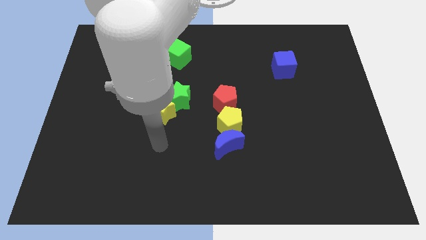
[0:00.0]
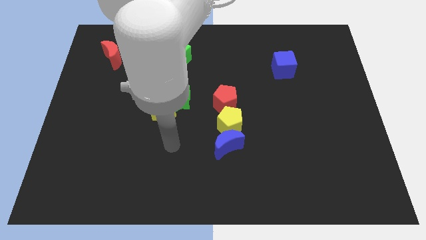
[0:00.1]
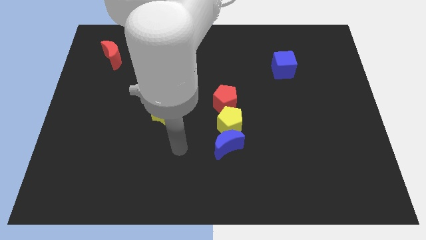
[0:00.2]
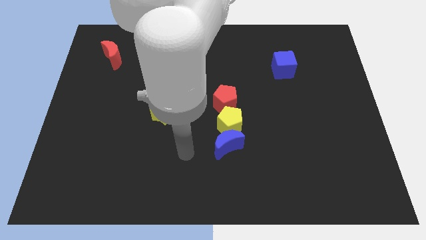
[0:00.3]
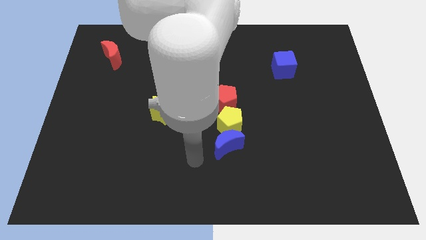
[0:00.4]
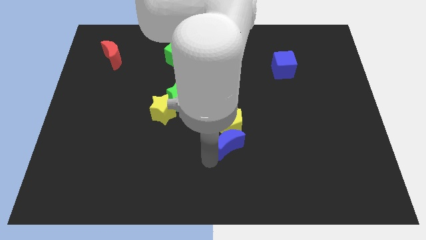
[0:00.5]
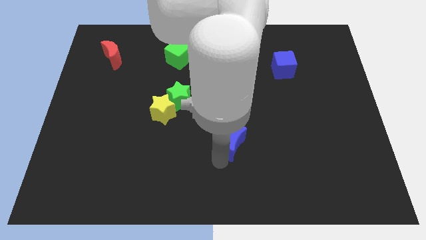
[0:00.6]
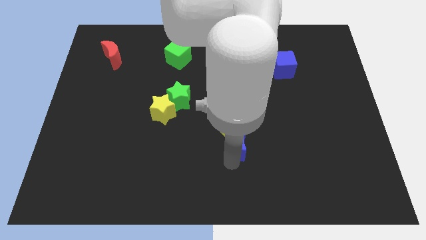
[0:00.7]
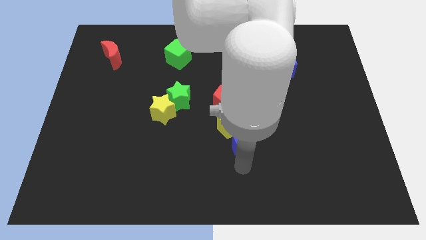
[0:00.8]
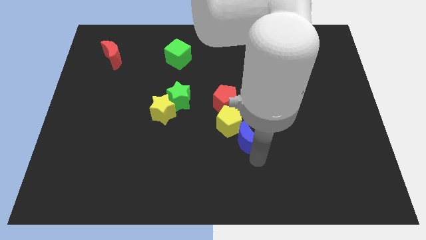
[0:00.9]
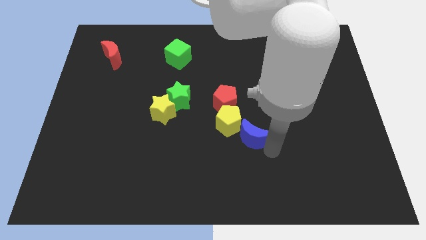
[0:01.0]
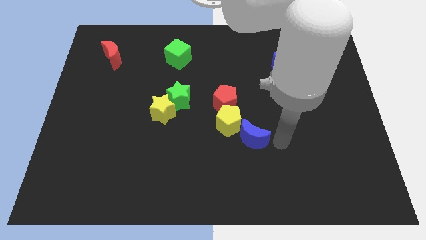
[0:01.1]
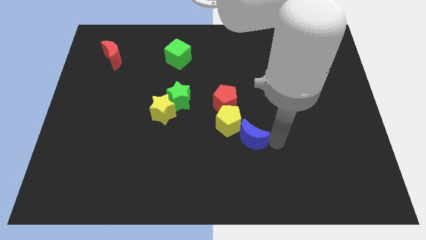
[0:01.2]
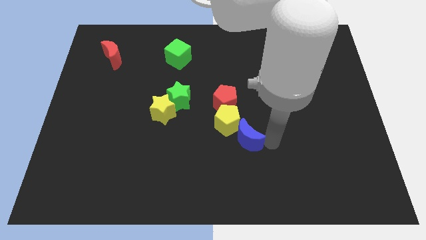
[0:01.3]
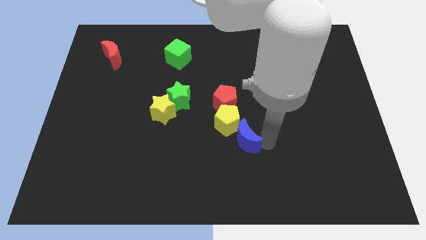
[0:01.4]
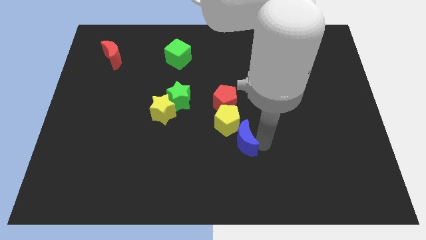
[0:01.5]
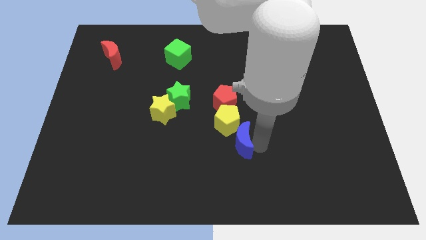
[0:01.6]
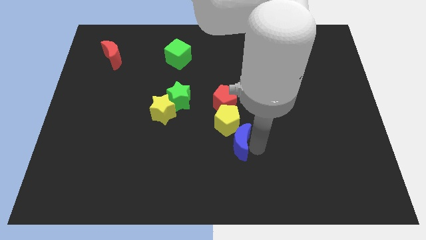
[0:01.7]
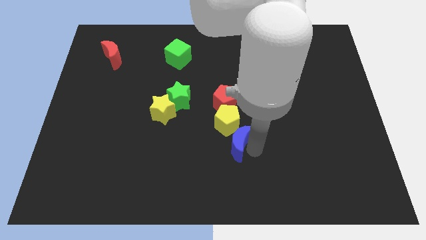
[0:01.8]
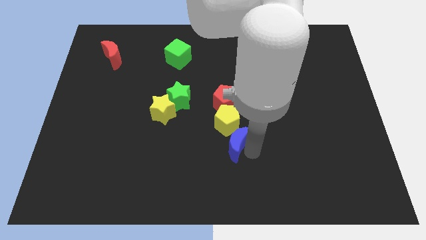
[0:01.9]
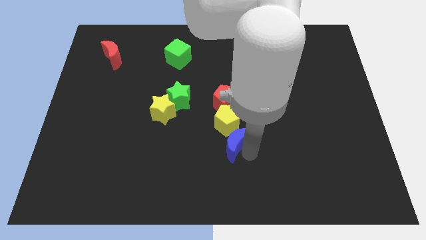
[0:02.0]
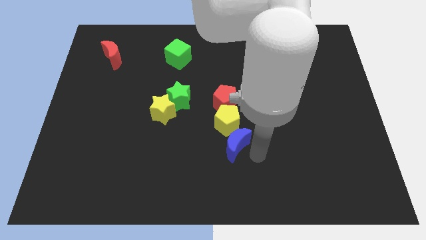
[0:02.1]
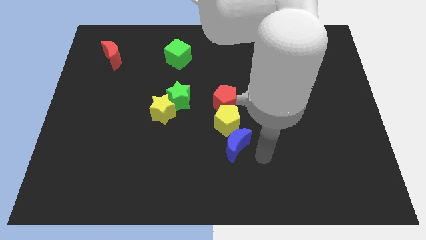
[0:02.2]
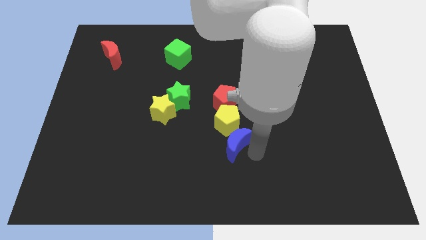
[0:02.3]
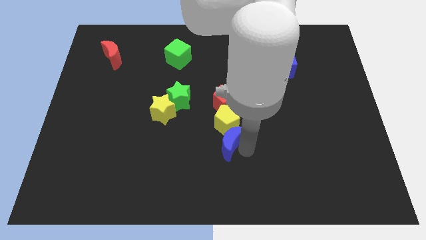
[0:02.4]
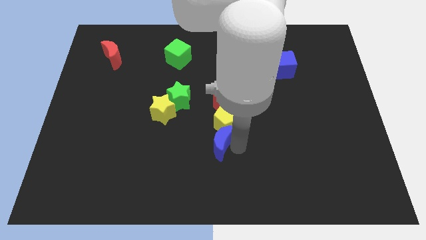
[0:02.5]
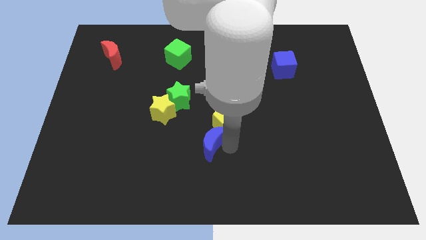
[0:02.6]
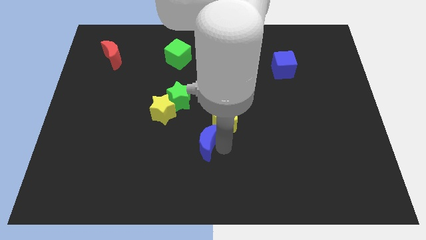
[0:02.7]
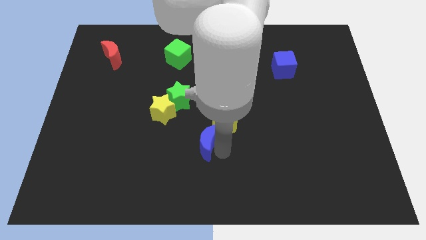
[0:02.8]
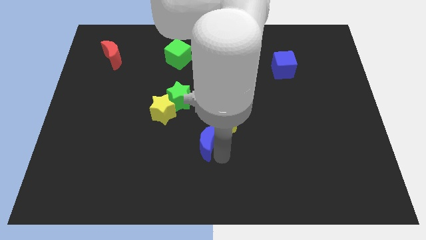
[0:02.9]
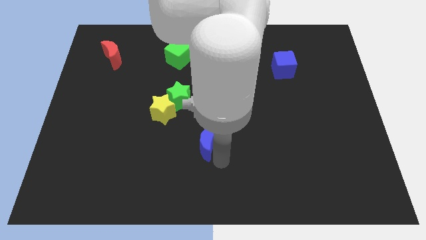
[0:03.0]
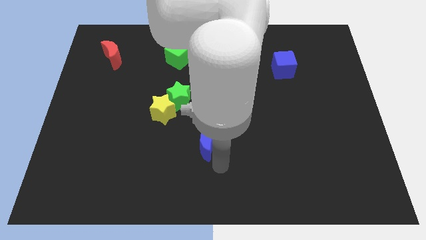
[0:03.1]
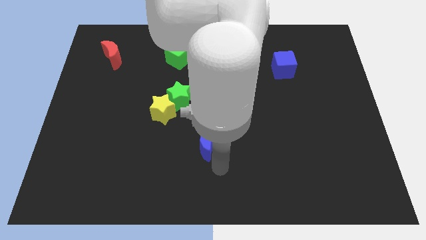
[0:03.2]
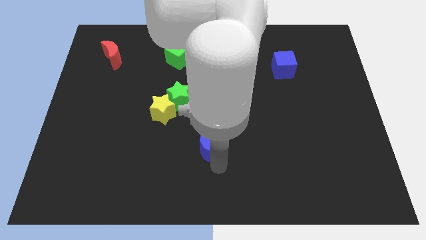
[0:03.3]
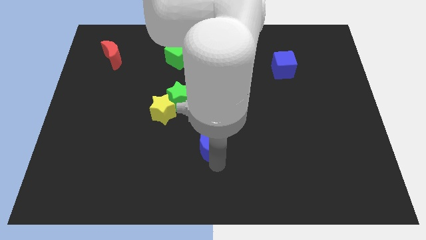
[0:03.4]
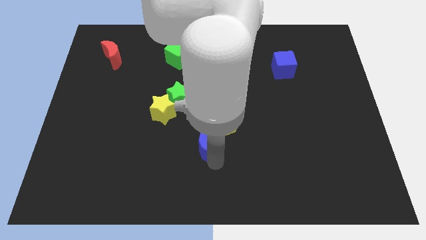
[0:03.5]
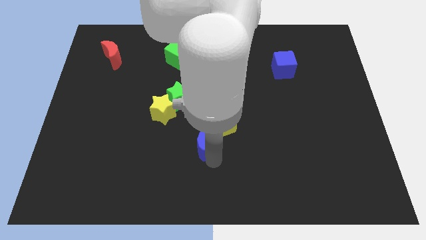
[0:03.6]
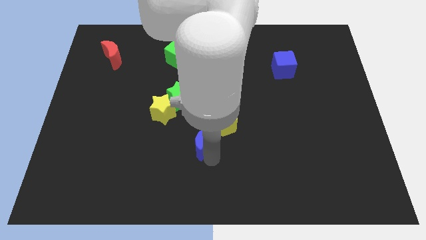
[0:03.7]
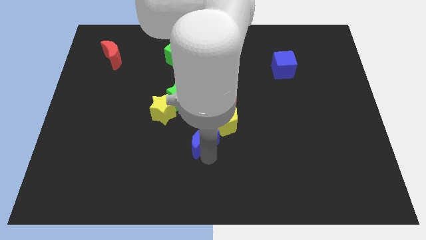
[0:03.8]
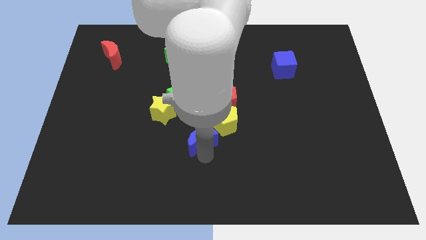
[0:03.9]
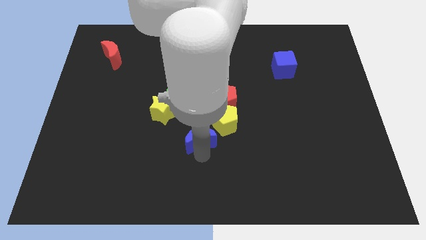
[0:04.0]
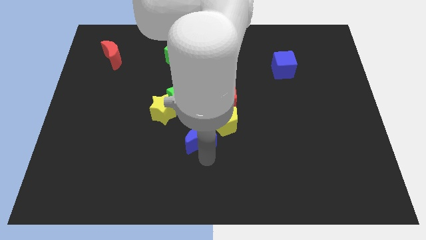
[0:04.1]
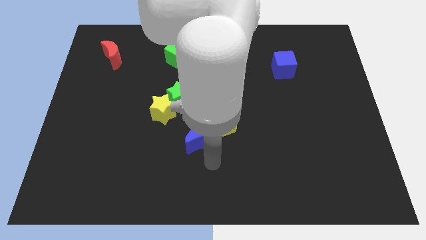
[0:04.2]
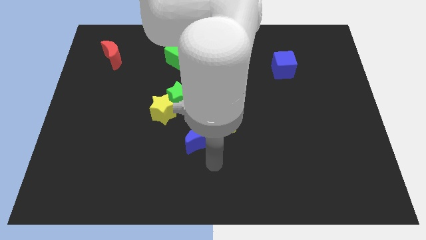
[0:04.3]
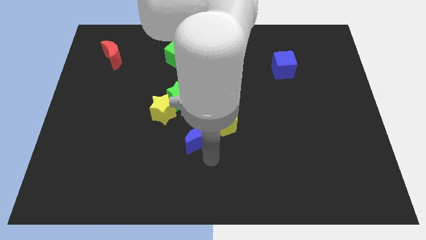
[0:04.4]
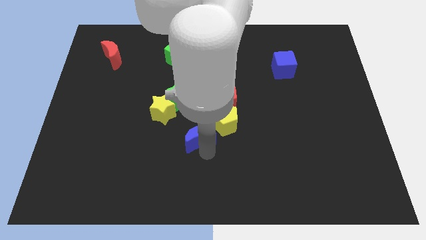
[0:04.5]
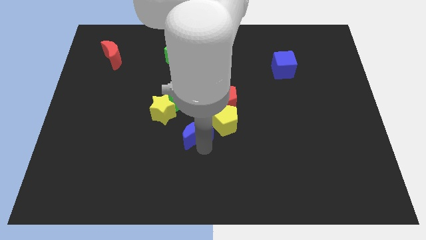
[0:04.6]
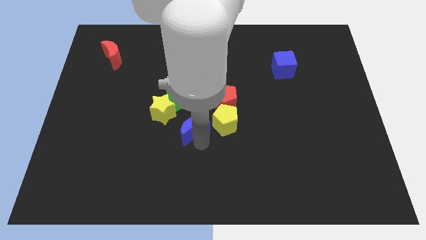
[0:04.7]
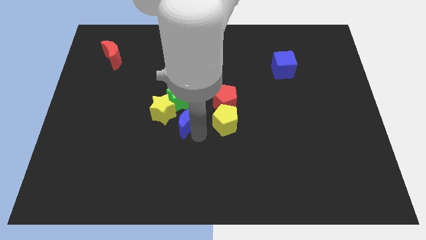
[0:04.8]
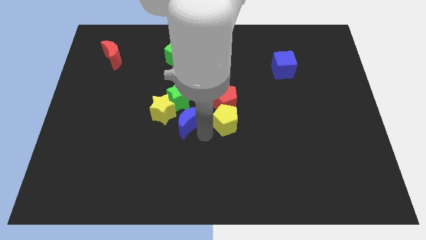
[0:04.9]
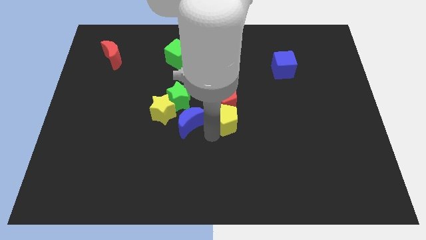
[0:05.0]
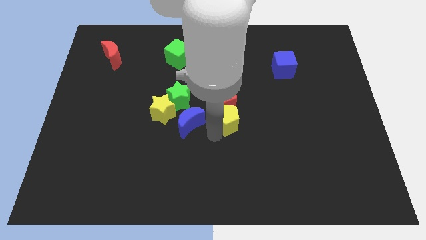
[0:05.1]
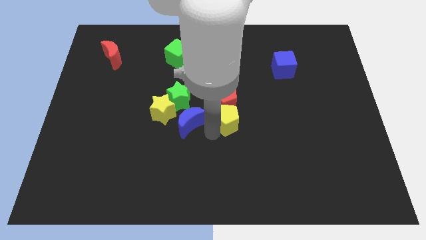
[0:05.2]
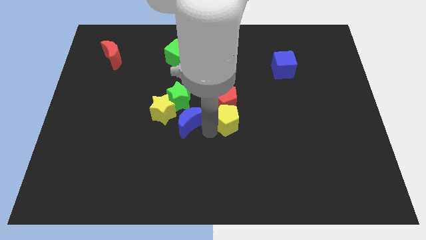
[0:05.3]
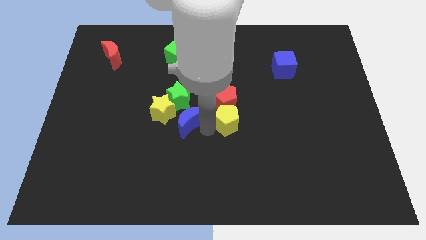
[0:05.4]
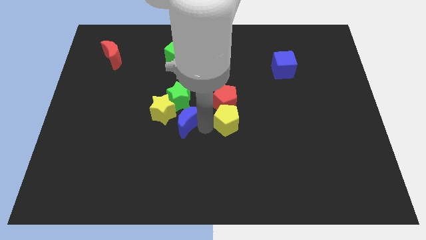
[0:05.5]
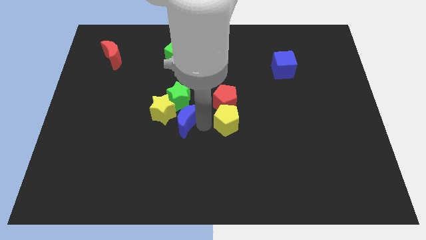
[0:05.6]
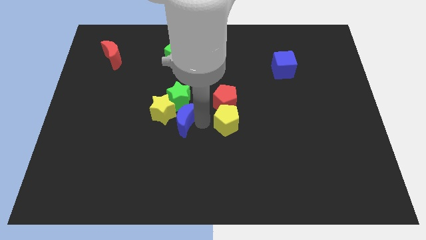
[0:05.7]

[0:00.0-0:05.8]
put the blue moon to the yellow star
